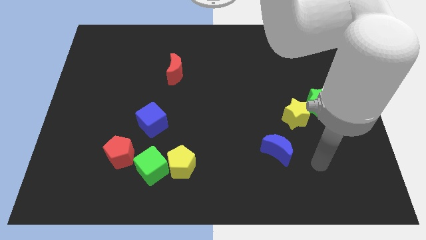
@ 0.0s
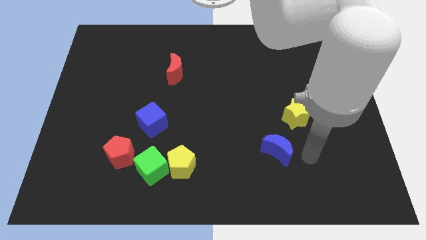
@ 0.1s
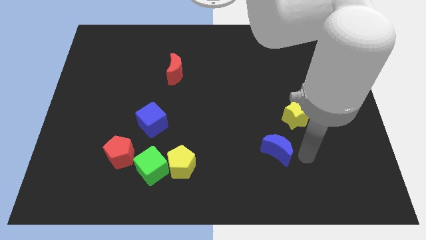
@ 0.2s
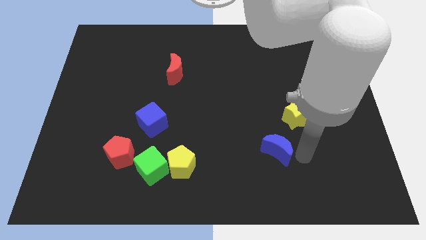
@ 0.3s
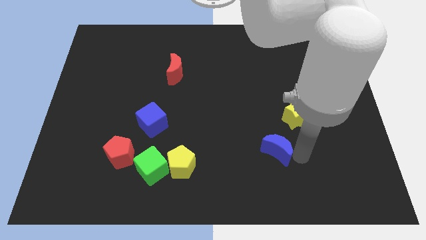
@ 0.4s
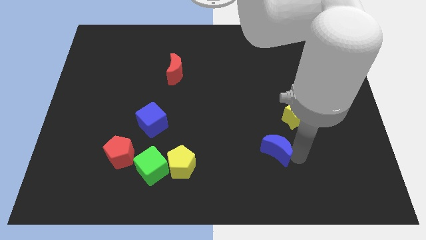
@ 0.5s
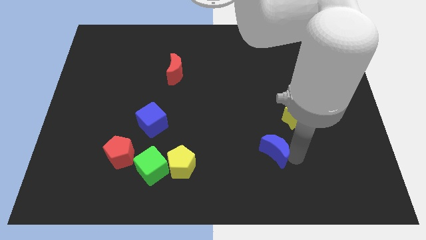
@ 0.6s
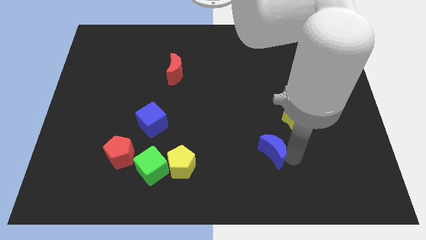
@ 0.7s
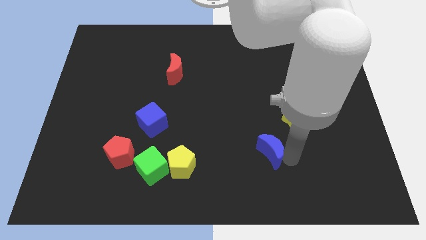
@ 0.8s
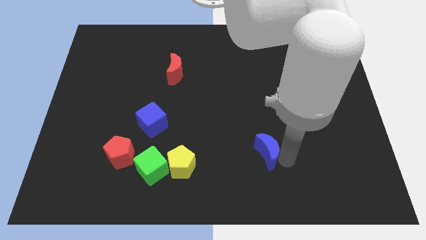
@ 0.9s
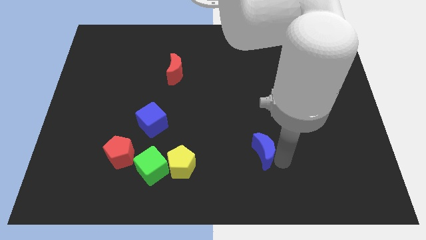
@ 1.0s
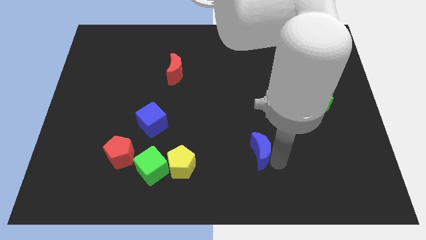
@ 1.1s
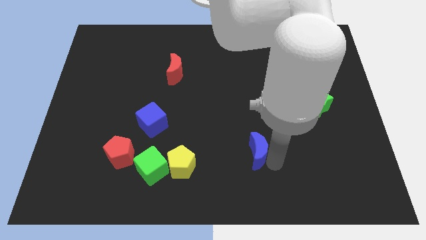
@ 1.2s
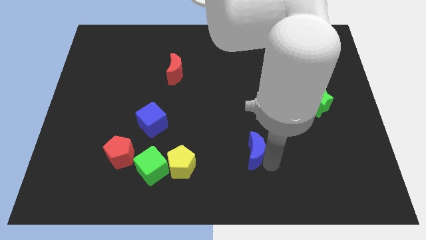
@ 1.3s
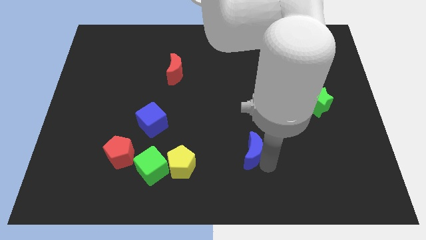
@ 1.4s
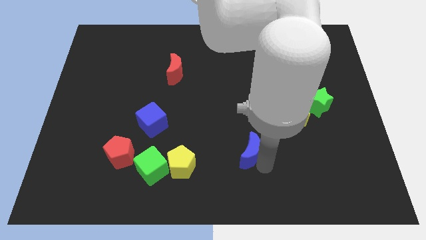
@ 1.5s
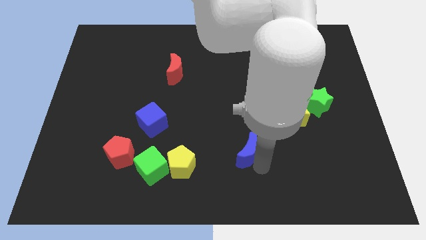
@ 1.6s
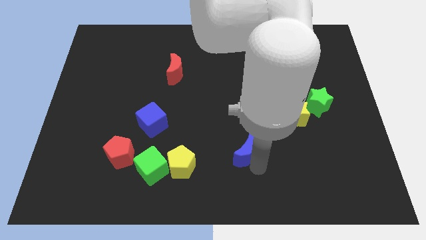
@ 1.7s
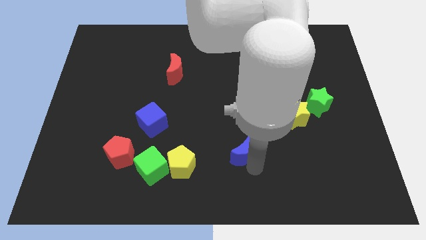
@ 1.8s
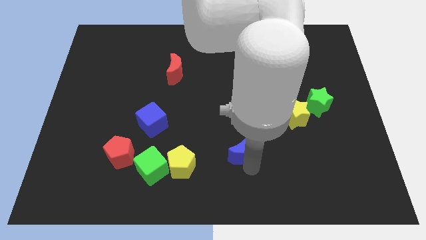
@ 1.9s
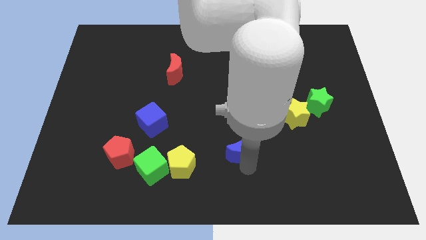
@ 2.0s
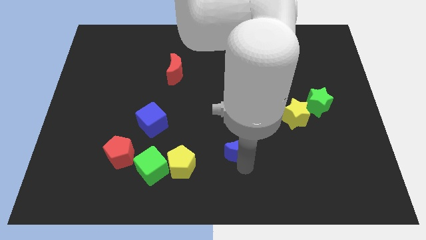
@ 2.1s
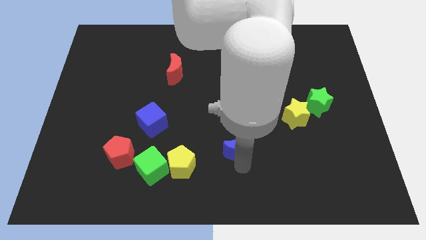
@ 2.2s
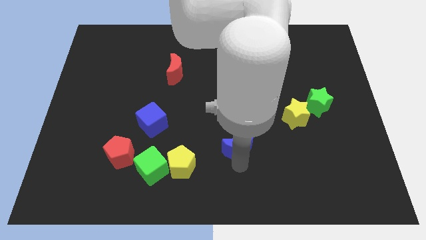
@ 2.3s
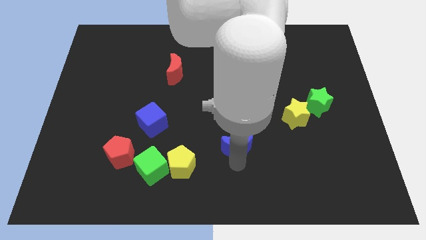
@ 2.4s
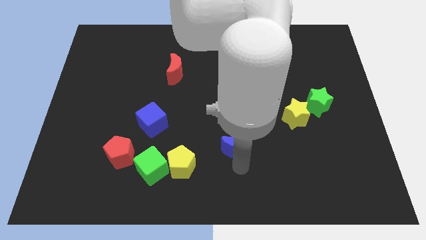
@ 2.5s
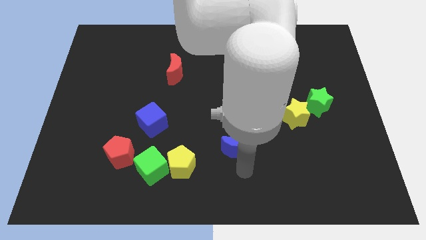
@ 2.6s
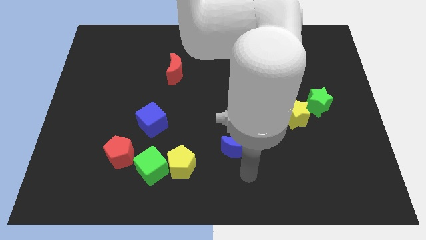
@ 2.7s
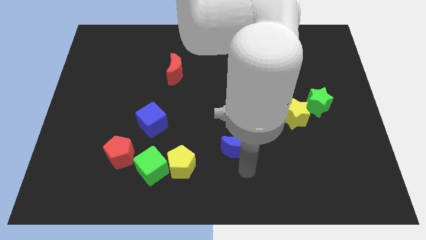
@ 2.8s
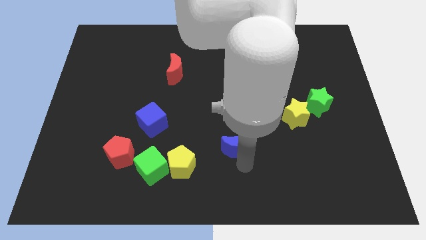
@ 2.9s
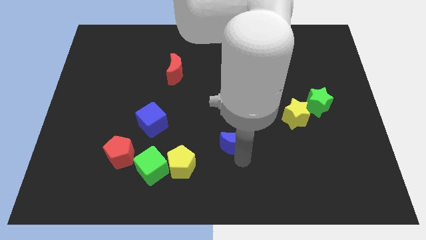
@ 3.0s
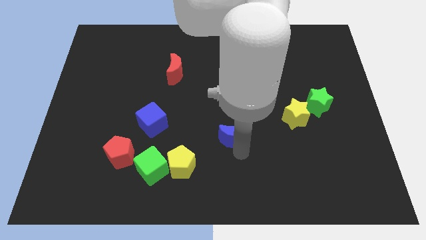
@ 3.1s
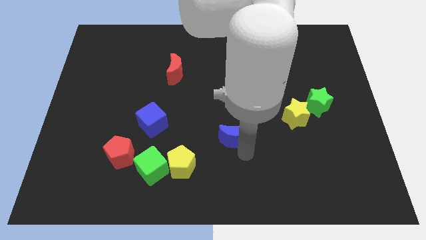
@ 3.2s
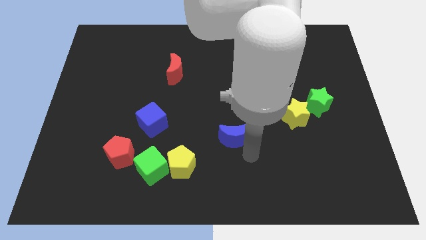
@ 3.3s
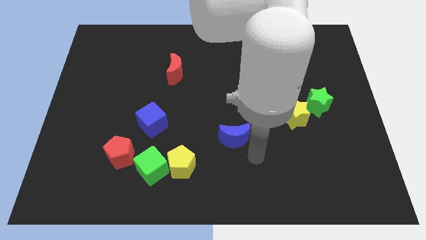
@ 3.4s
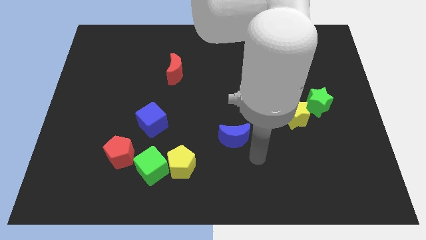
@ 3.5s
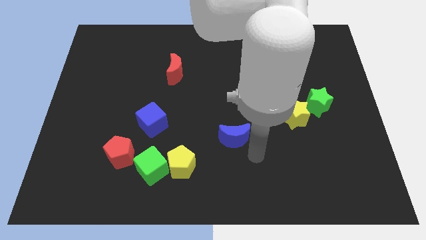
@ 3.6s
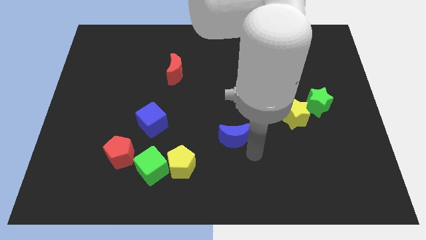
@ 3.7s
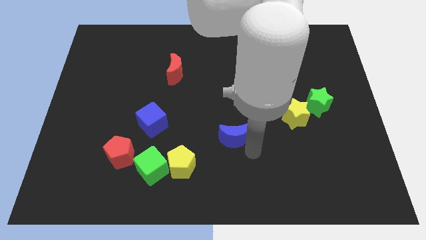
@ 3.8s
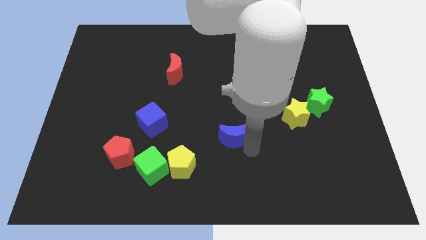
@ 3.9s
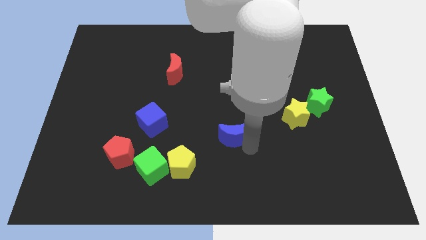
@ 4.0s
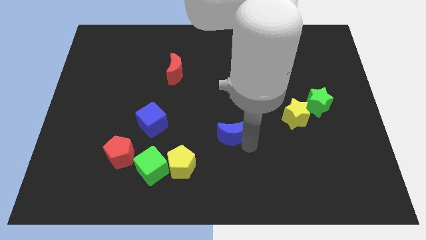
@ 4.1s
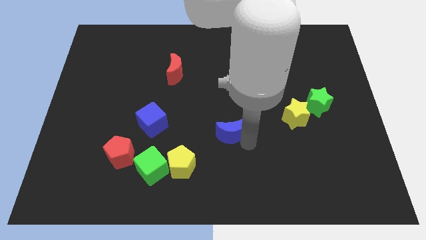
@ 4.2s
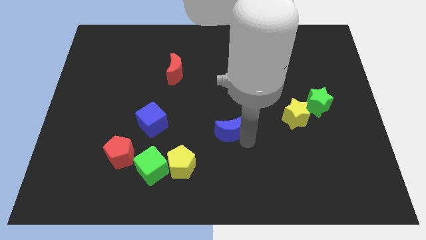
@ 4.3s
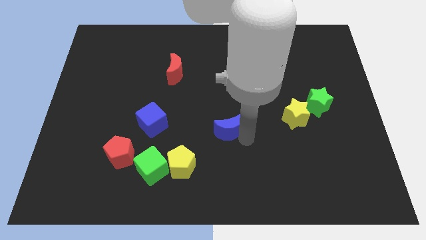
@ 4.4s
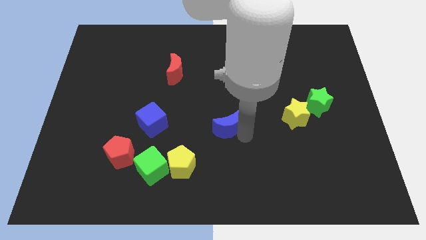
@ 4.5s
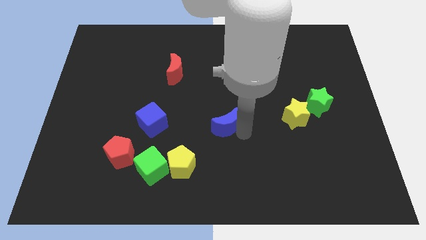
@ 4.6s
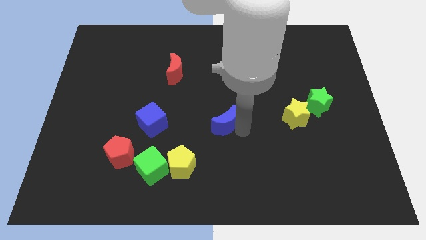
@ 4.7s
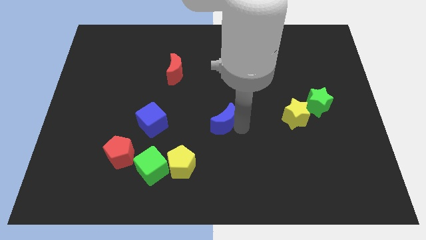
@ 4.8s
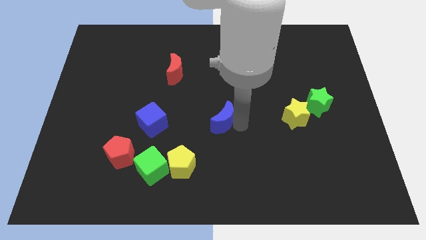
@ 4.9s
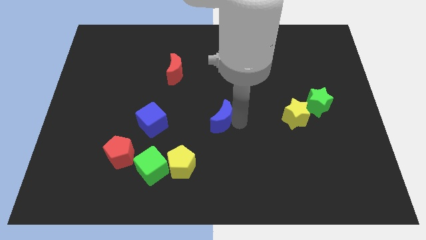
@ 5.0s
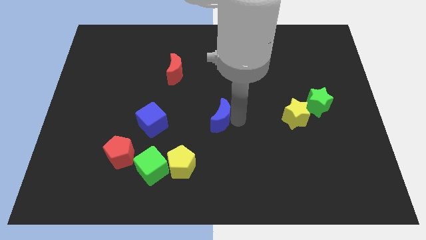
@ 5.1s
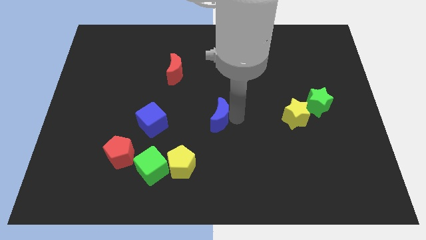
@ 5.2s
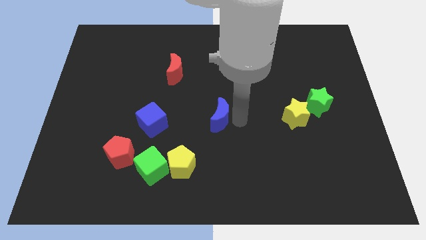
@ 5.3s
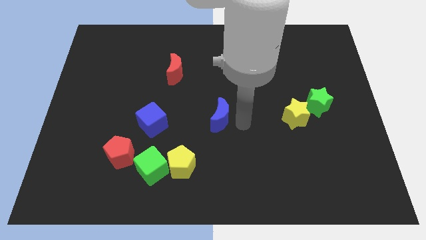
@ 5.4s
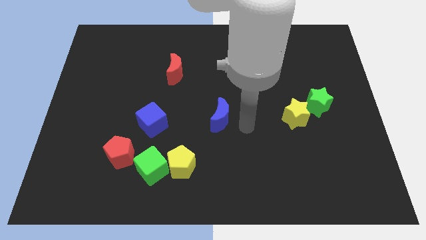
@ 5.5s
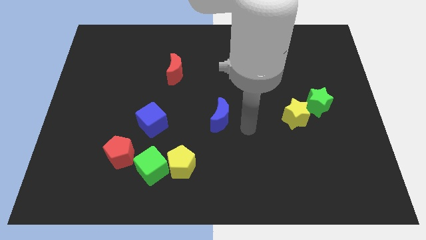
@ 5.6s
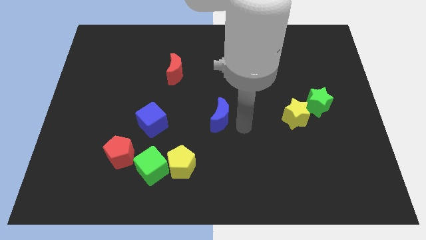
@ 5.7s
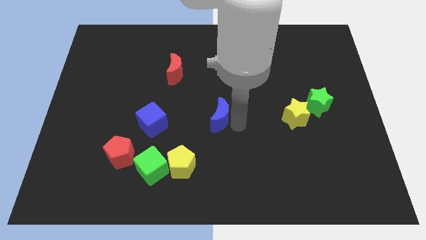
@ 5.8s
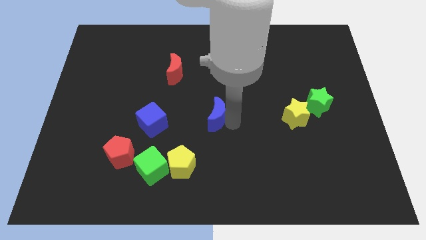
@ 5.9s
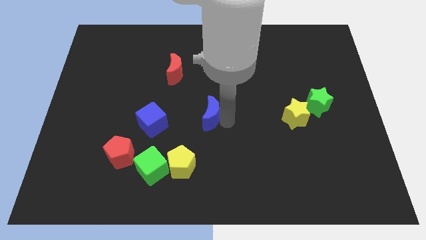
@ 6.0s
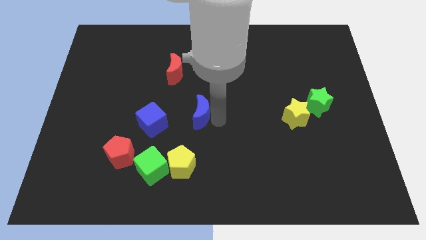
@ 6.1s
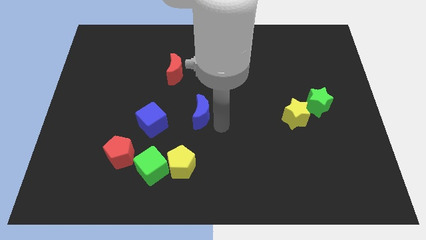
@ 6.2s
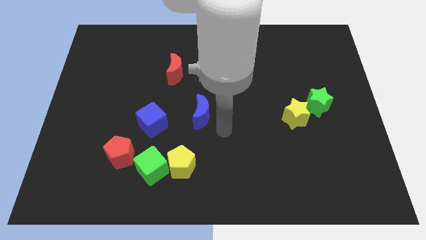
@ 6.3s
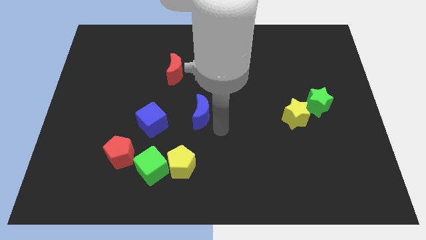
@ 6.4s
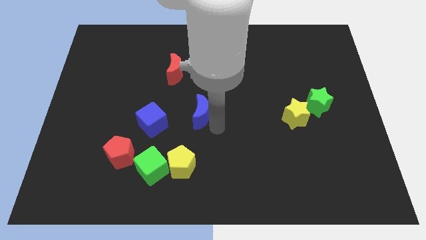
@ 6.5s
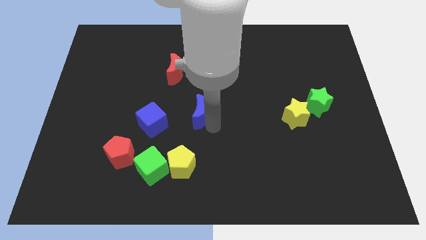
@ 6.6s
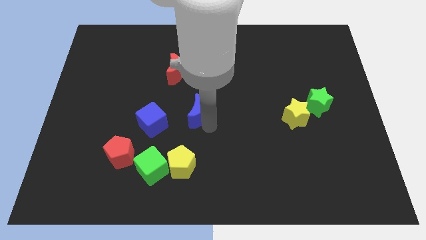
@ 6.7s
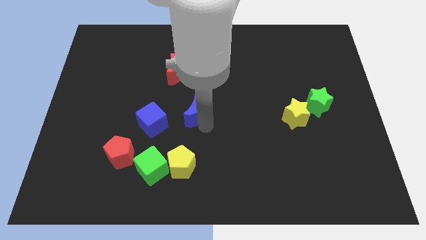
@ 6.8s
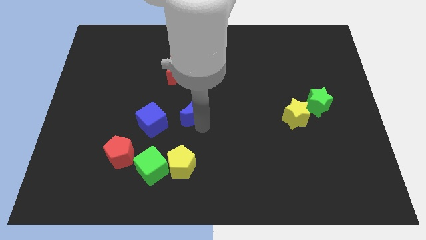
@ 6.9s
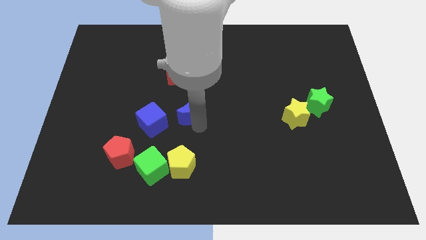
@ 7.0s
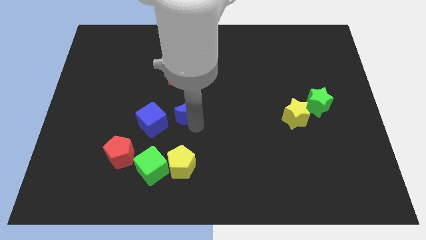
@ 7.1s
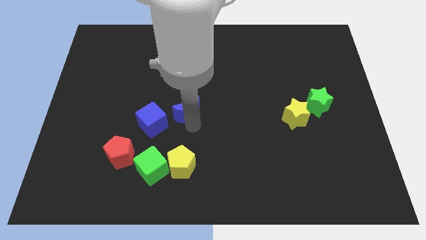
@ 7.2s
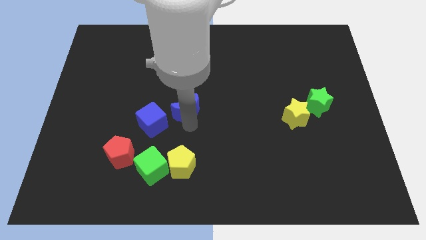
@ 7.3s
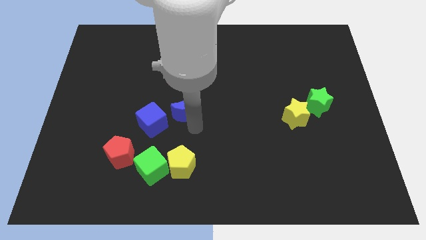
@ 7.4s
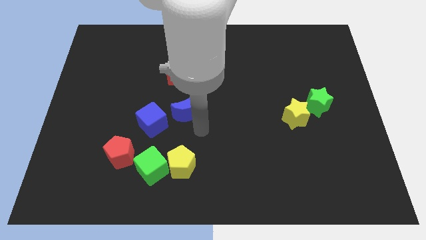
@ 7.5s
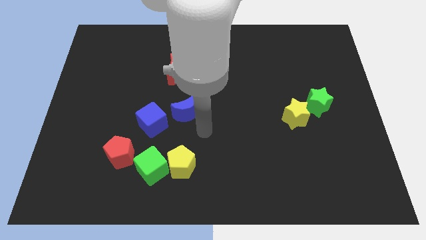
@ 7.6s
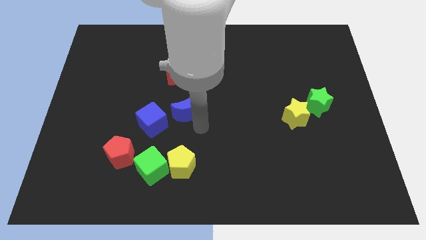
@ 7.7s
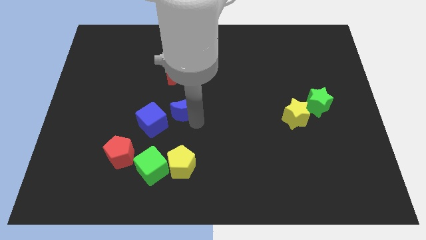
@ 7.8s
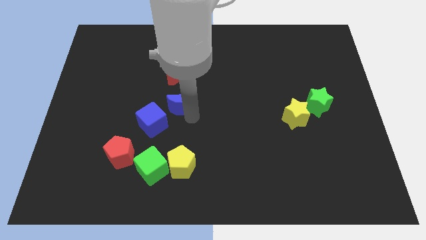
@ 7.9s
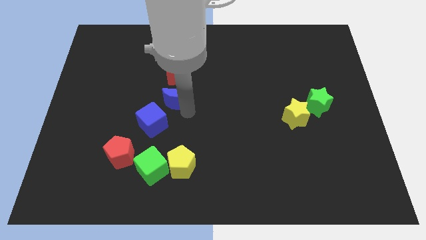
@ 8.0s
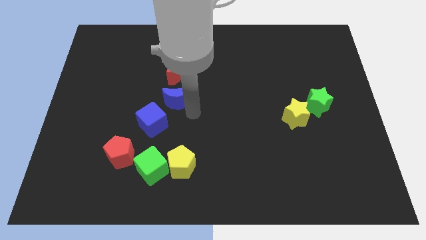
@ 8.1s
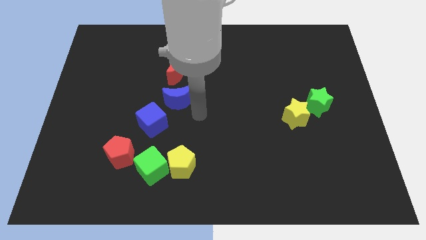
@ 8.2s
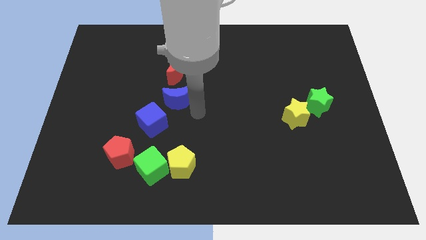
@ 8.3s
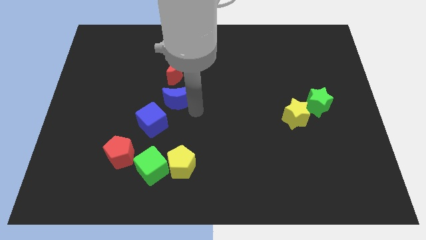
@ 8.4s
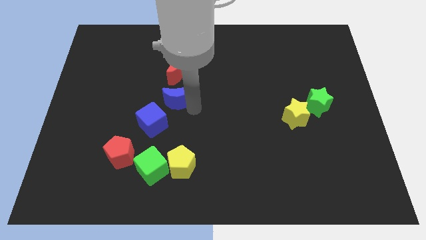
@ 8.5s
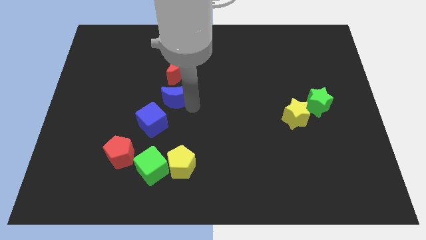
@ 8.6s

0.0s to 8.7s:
slide the blue moon to the top side of the blue cube
